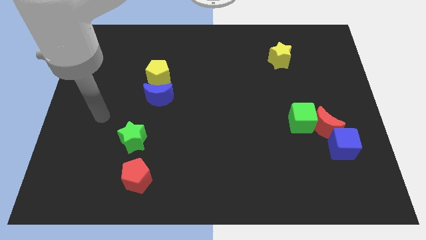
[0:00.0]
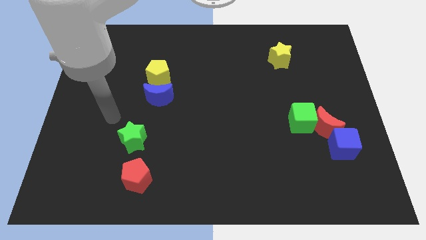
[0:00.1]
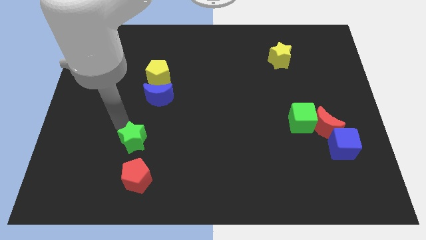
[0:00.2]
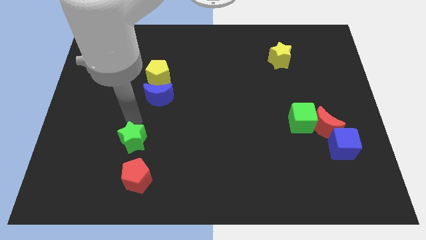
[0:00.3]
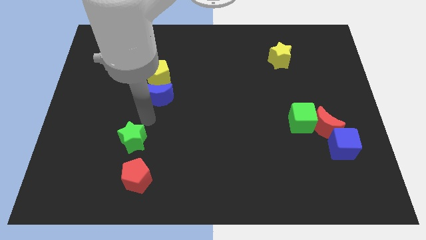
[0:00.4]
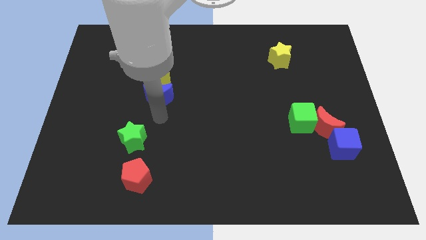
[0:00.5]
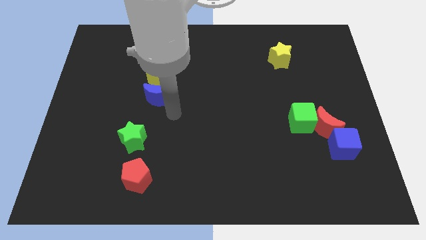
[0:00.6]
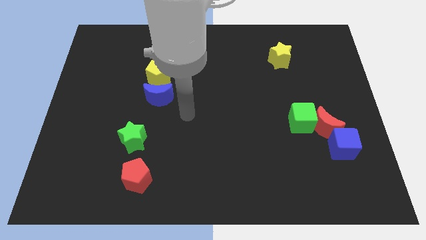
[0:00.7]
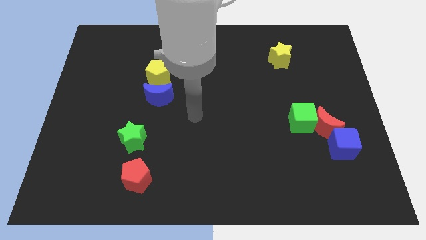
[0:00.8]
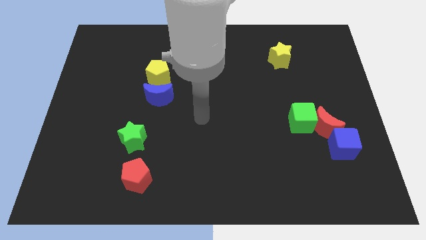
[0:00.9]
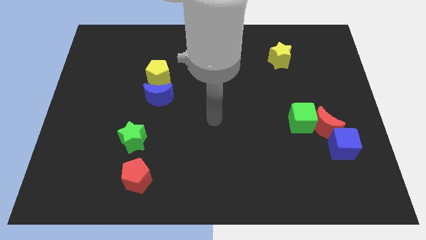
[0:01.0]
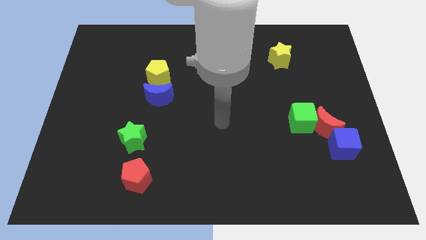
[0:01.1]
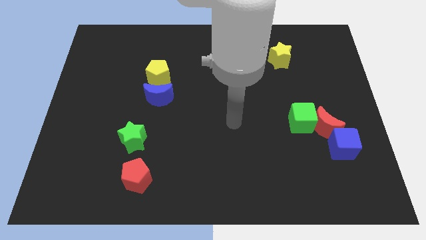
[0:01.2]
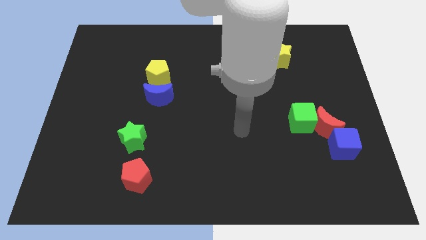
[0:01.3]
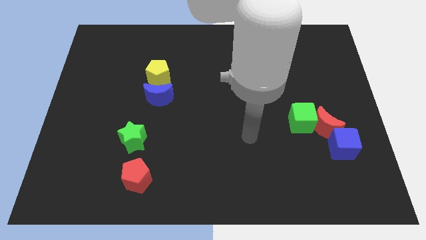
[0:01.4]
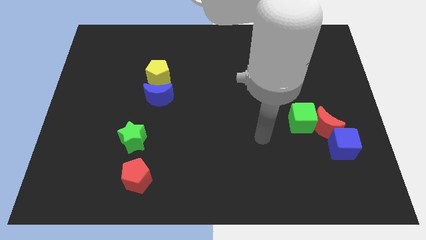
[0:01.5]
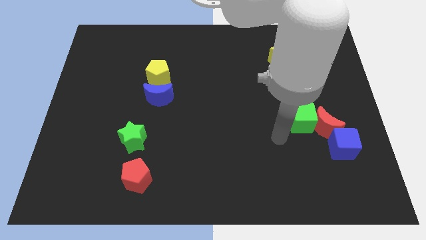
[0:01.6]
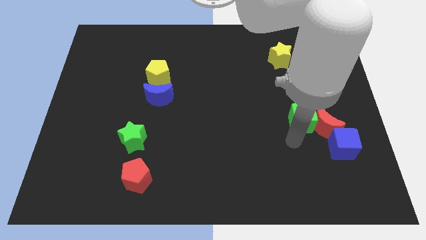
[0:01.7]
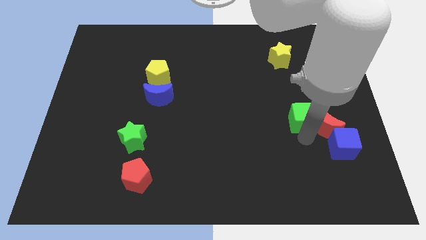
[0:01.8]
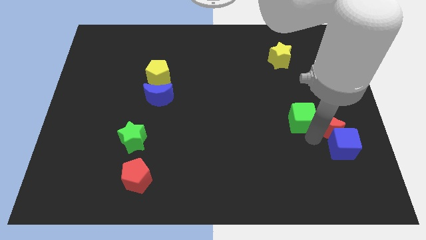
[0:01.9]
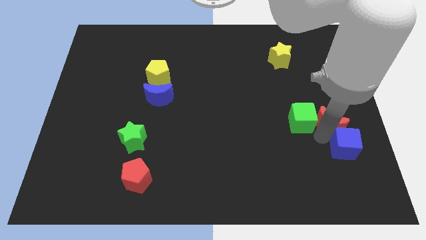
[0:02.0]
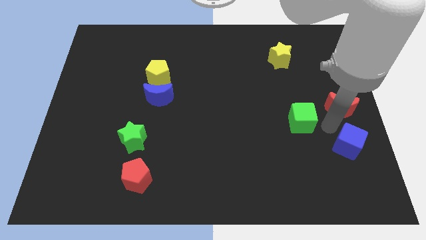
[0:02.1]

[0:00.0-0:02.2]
separate the green cube from the red moon

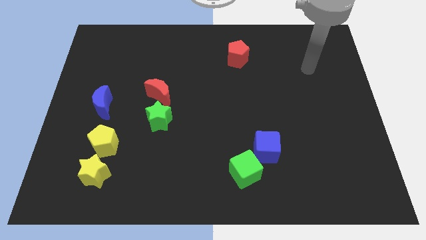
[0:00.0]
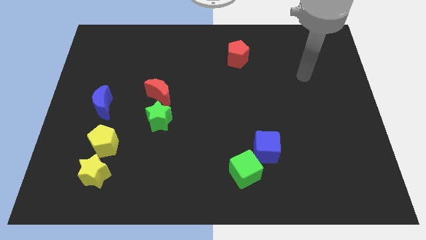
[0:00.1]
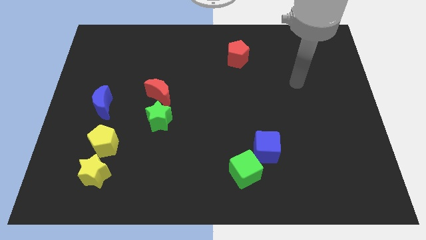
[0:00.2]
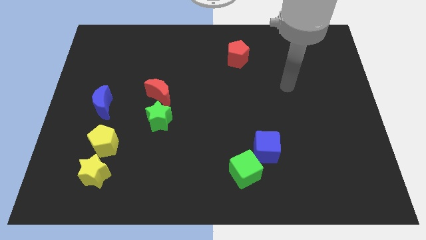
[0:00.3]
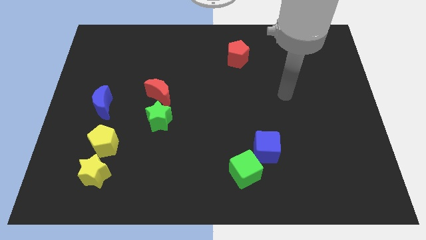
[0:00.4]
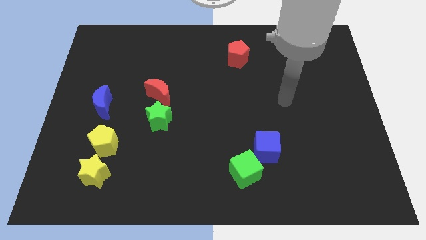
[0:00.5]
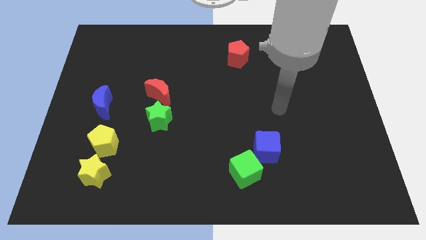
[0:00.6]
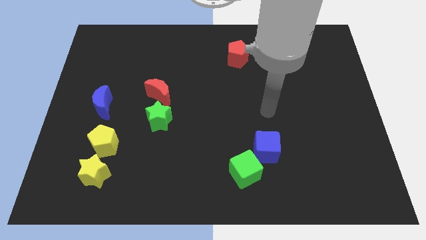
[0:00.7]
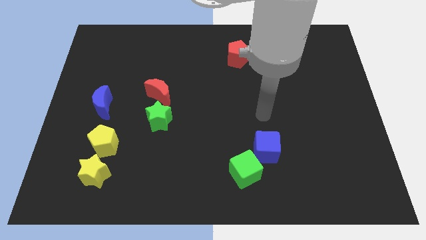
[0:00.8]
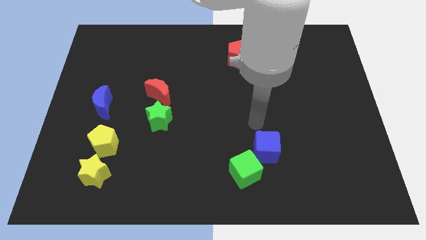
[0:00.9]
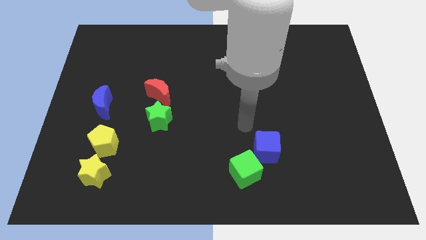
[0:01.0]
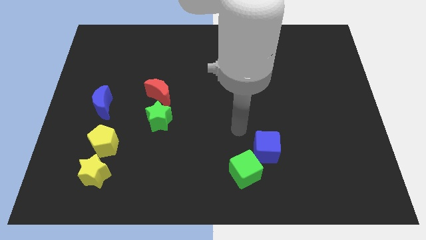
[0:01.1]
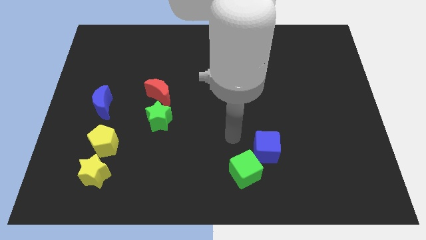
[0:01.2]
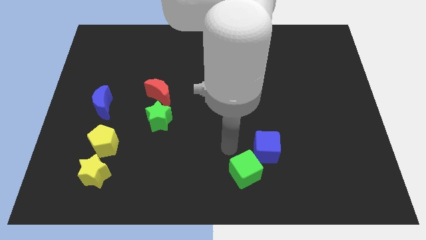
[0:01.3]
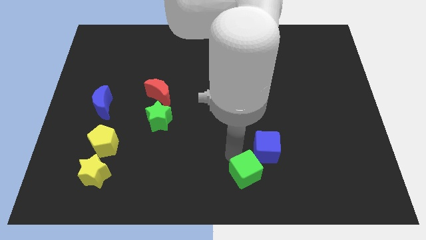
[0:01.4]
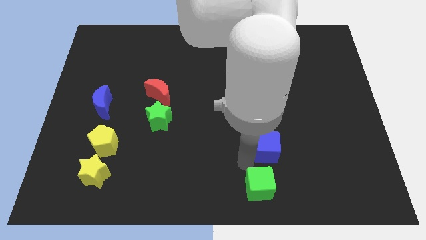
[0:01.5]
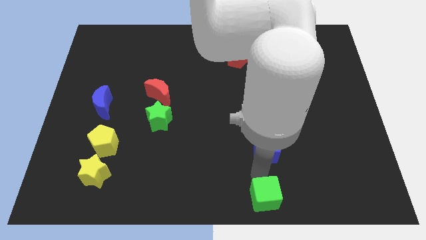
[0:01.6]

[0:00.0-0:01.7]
pull the blue cube apart from the green cube

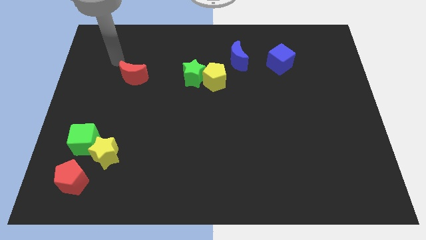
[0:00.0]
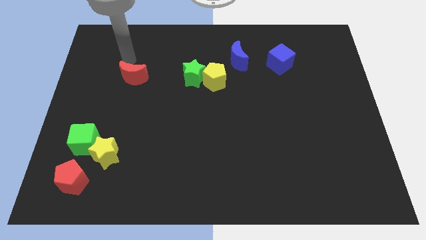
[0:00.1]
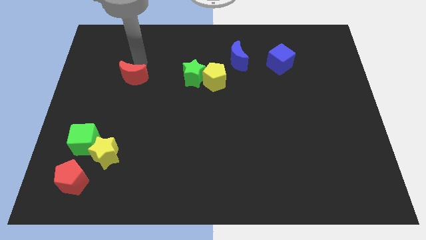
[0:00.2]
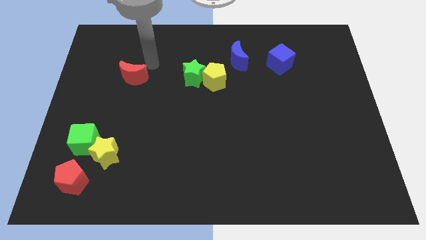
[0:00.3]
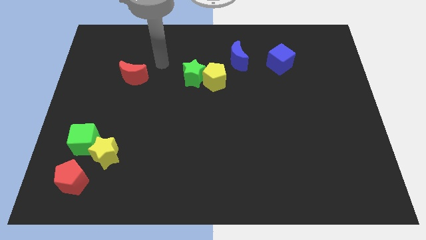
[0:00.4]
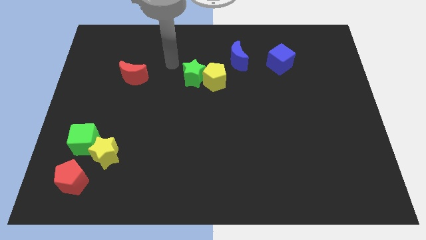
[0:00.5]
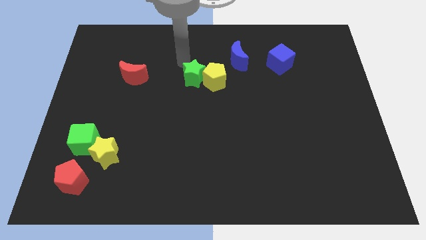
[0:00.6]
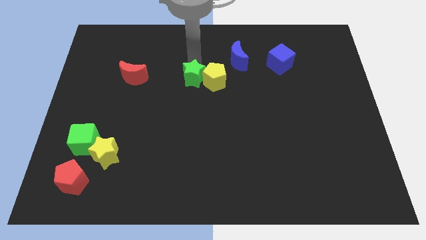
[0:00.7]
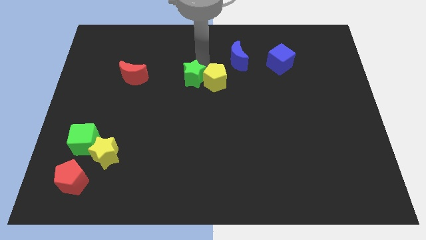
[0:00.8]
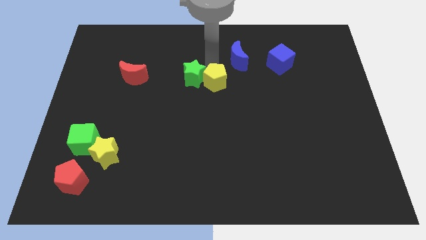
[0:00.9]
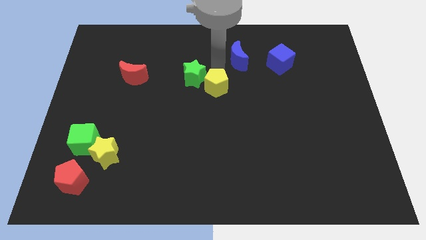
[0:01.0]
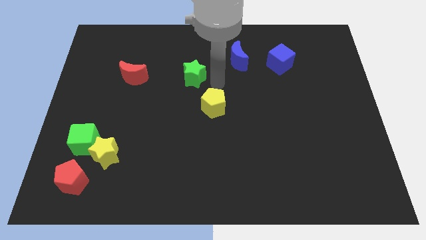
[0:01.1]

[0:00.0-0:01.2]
move the green star away from the yellow pentagon

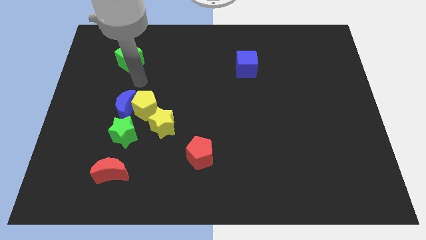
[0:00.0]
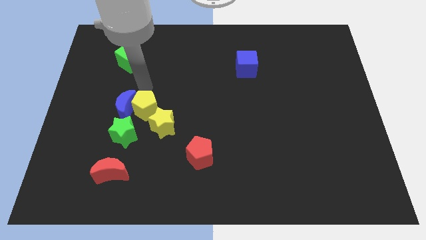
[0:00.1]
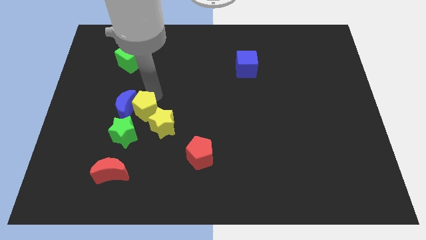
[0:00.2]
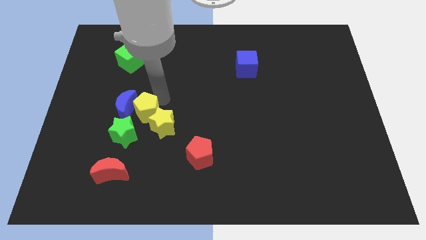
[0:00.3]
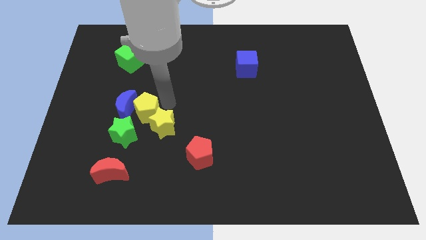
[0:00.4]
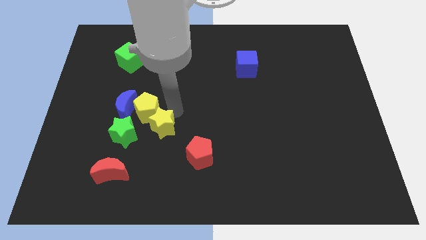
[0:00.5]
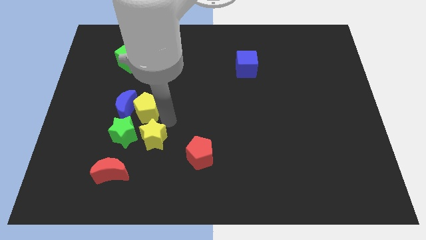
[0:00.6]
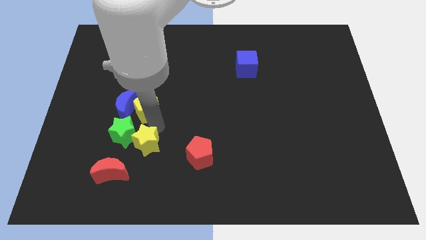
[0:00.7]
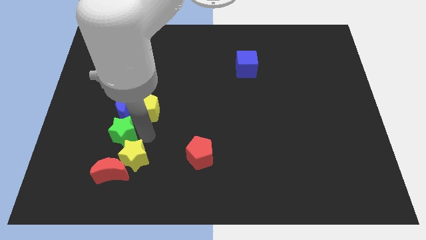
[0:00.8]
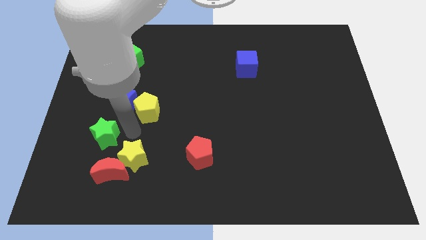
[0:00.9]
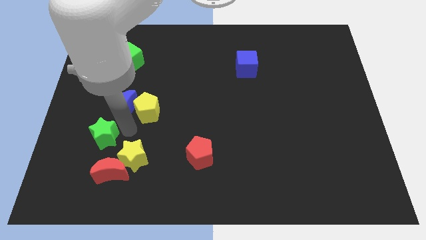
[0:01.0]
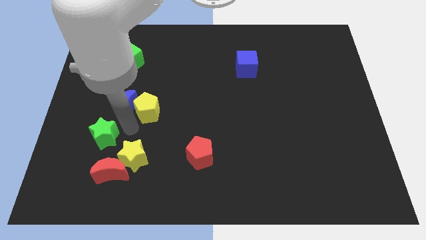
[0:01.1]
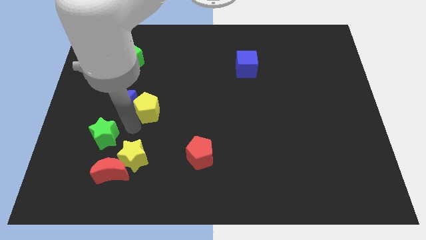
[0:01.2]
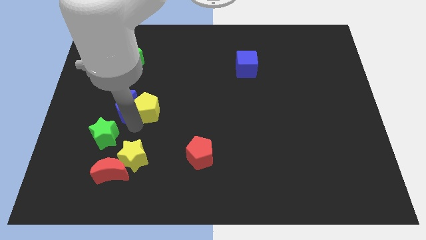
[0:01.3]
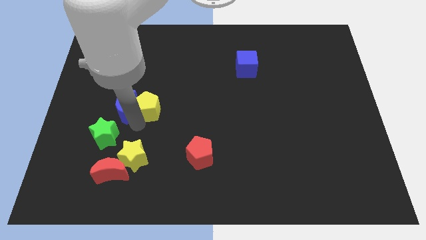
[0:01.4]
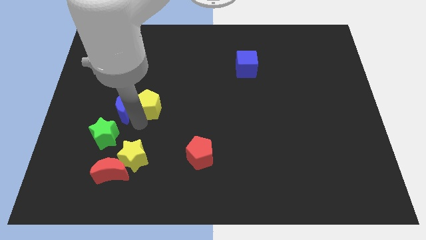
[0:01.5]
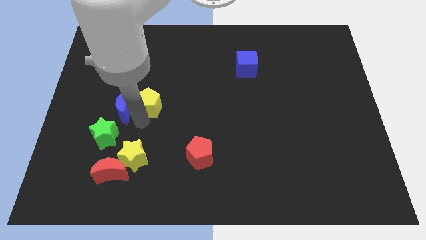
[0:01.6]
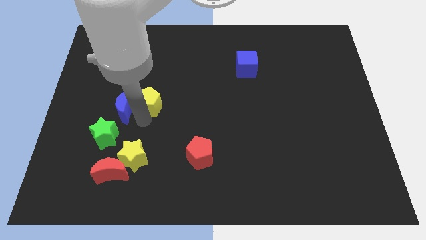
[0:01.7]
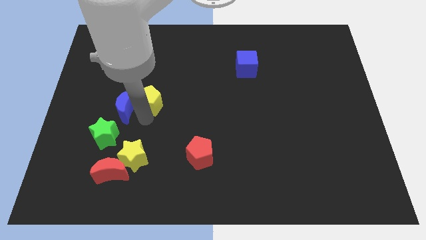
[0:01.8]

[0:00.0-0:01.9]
pull the yellow pentagon apart from the group of blocks

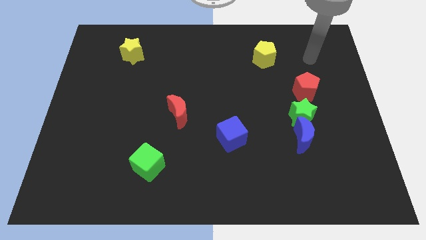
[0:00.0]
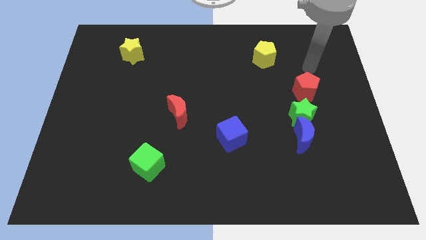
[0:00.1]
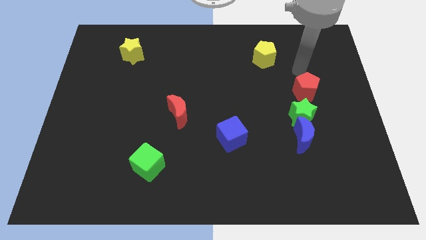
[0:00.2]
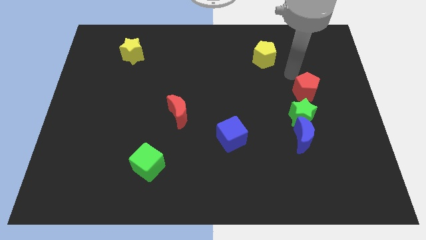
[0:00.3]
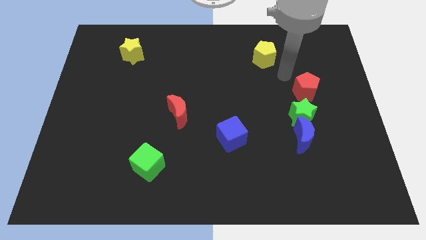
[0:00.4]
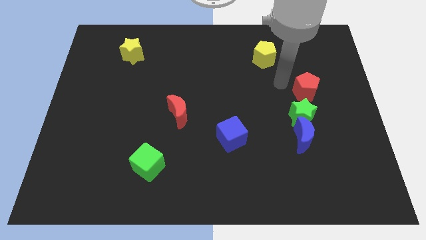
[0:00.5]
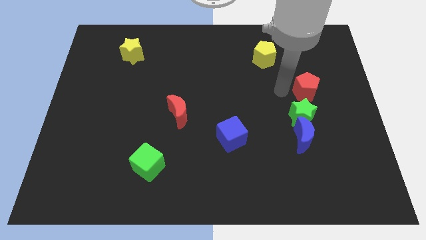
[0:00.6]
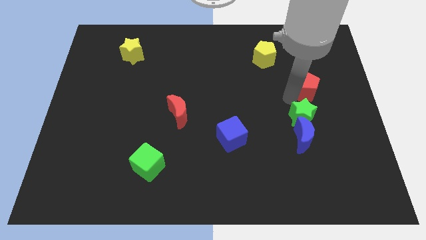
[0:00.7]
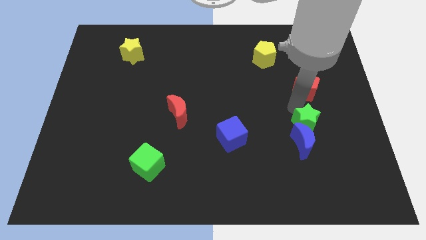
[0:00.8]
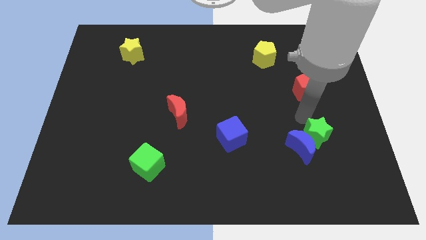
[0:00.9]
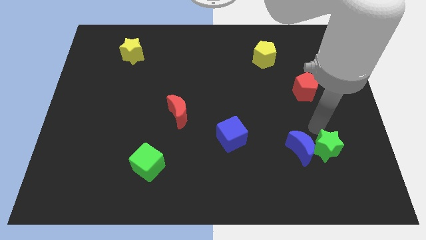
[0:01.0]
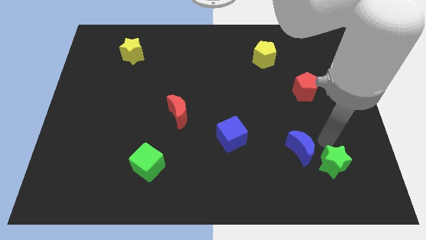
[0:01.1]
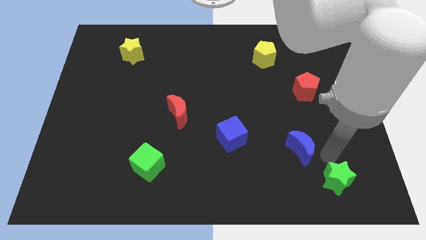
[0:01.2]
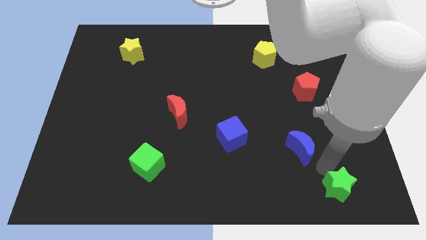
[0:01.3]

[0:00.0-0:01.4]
separate the blue moon from the green star

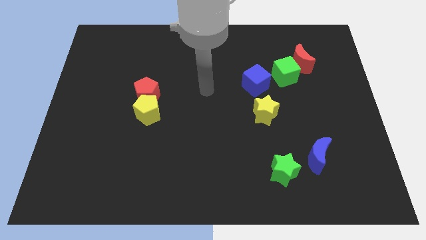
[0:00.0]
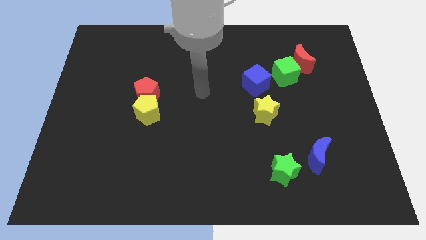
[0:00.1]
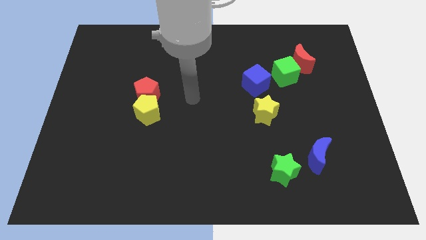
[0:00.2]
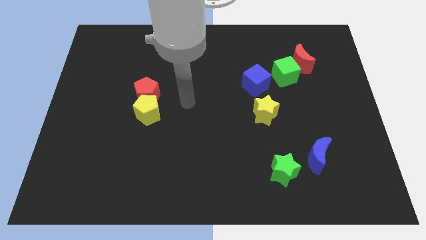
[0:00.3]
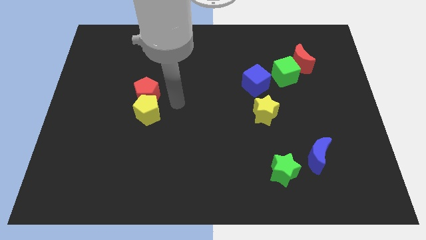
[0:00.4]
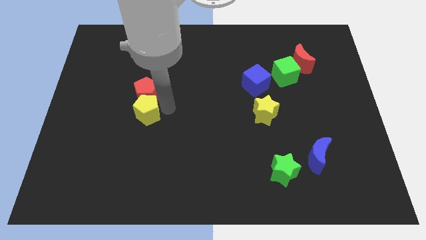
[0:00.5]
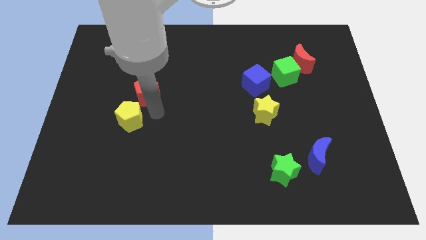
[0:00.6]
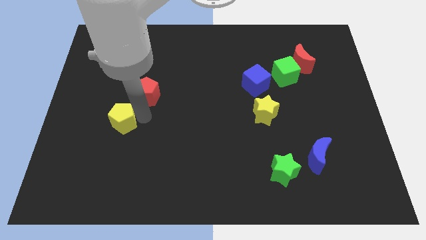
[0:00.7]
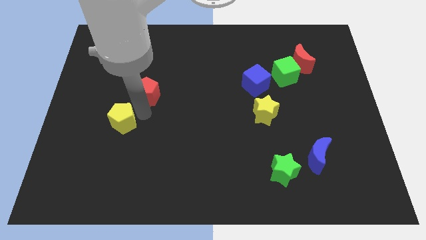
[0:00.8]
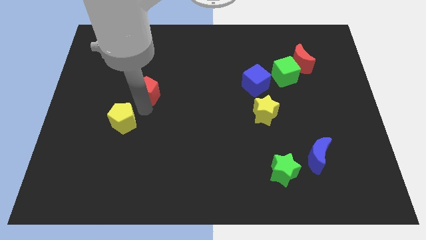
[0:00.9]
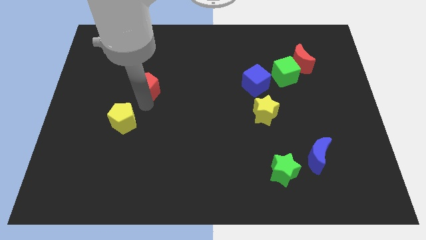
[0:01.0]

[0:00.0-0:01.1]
move the red pentagon away from the yellow pentagon
